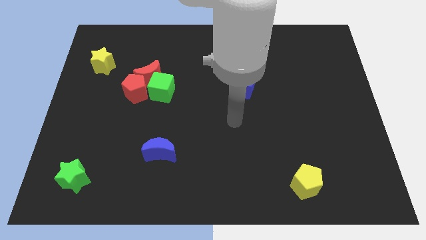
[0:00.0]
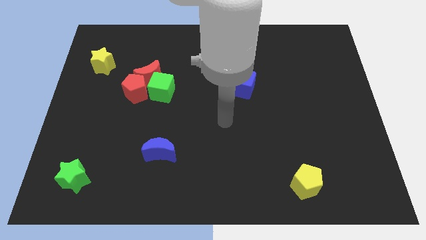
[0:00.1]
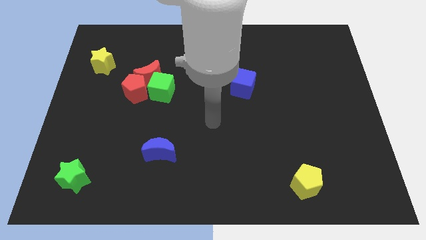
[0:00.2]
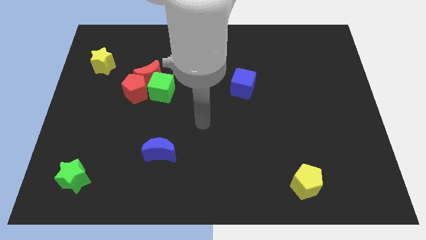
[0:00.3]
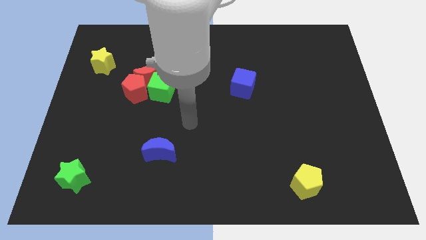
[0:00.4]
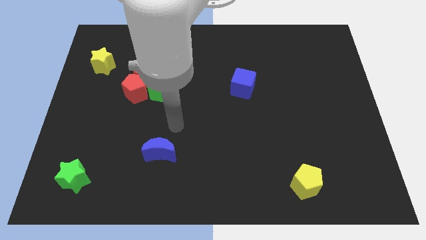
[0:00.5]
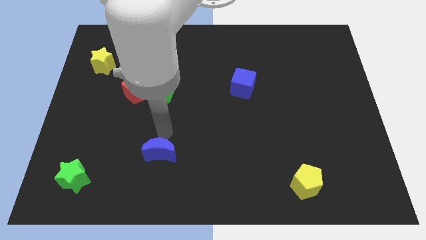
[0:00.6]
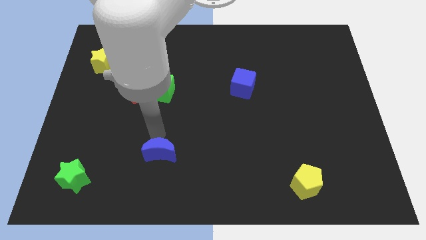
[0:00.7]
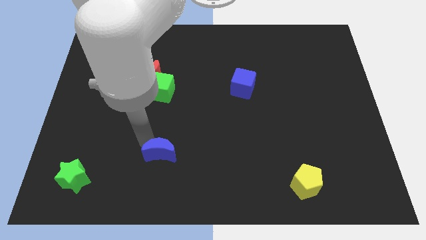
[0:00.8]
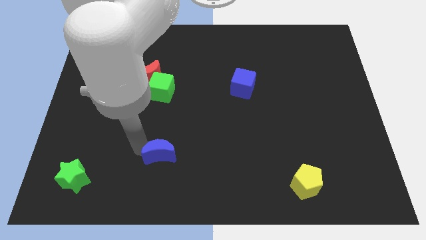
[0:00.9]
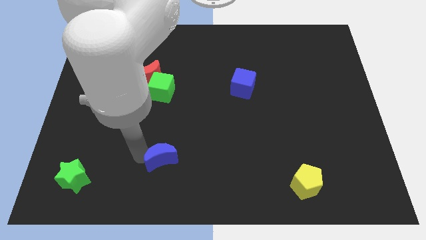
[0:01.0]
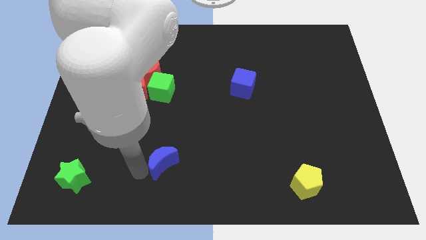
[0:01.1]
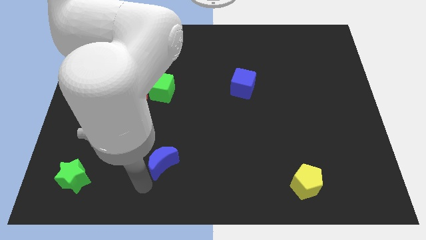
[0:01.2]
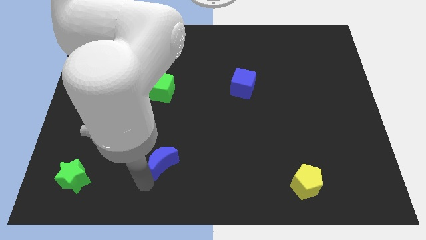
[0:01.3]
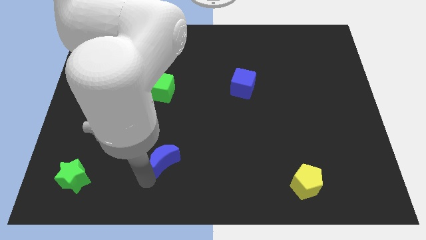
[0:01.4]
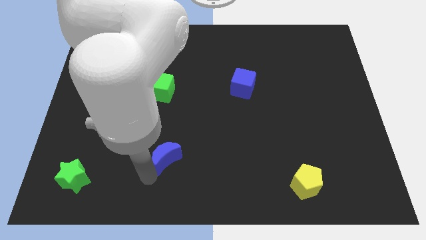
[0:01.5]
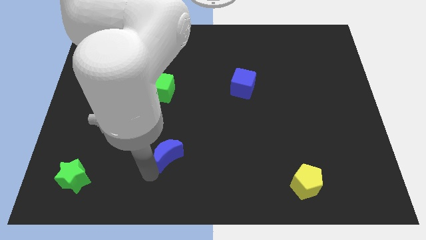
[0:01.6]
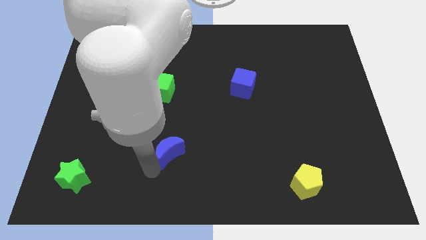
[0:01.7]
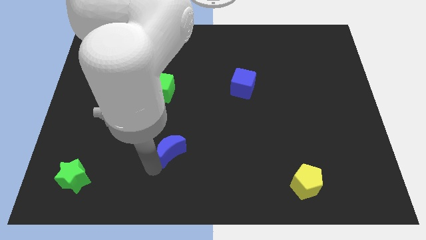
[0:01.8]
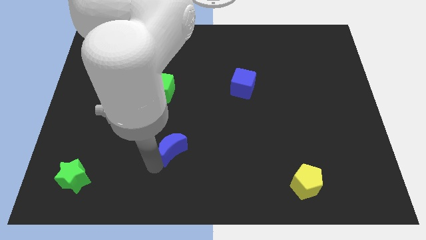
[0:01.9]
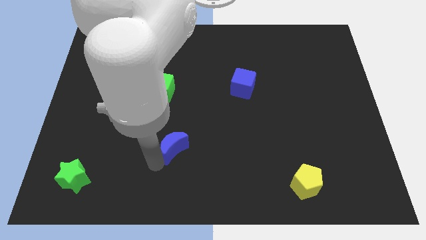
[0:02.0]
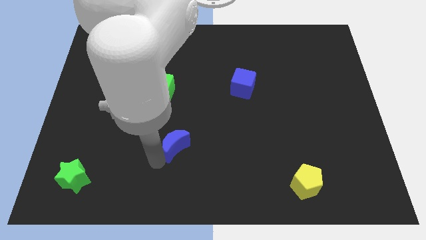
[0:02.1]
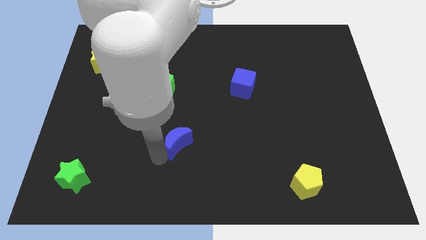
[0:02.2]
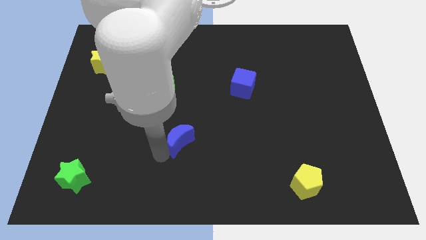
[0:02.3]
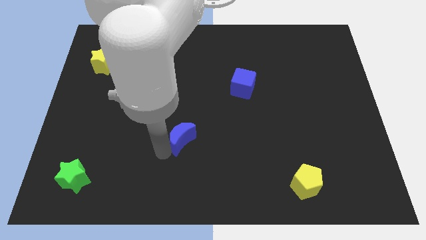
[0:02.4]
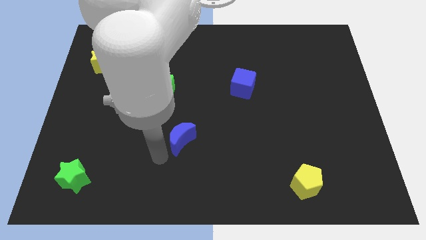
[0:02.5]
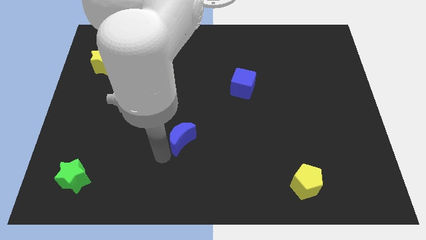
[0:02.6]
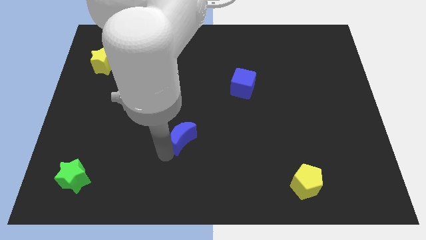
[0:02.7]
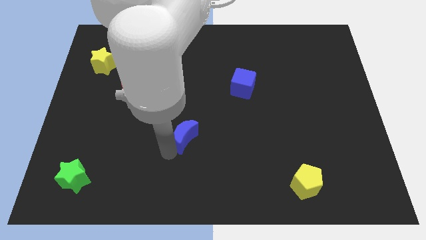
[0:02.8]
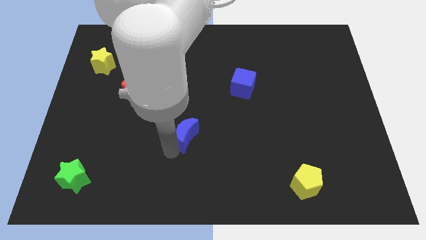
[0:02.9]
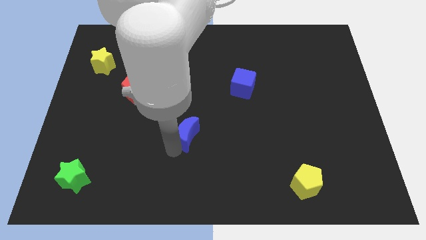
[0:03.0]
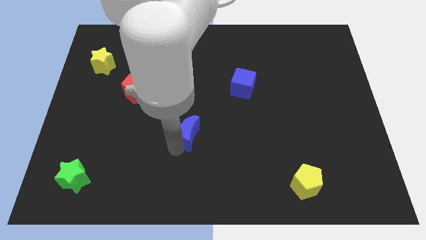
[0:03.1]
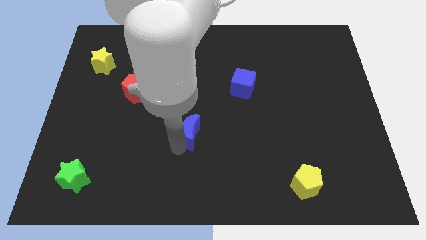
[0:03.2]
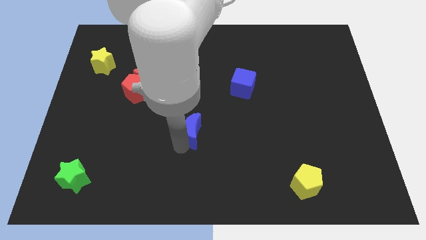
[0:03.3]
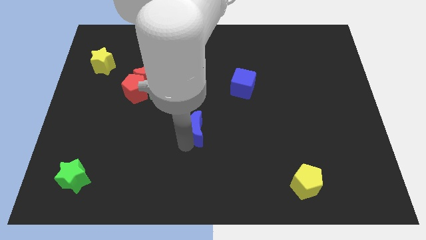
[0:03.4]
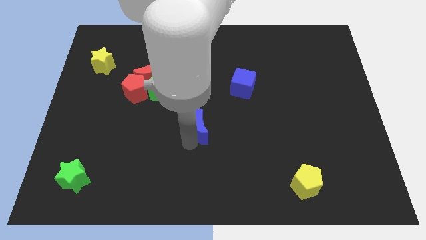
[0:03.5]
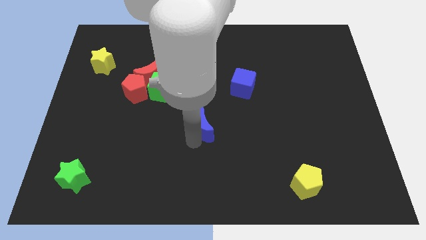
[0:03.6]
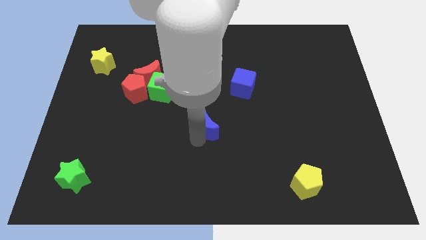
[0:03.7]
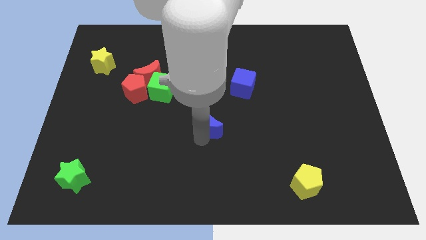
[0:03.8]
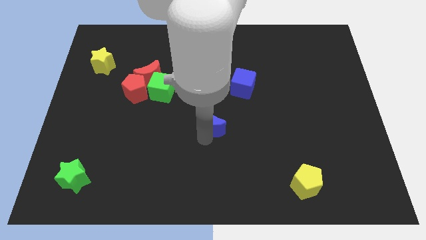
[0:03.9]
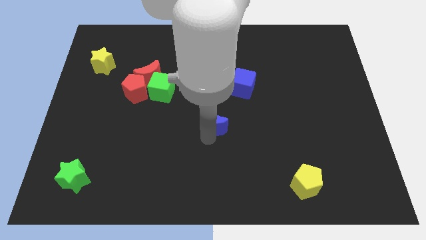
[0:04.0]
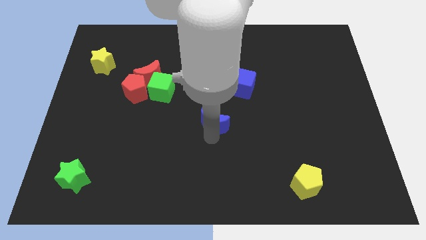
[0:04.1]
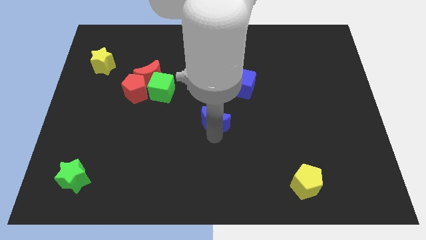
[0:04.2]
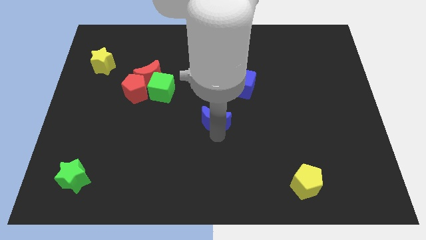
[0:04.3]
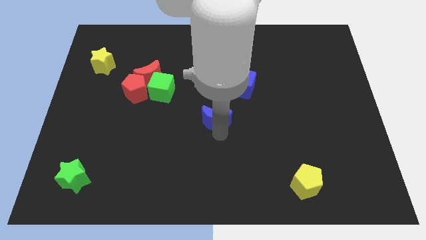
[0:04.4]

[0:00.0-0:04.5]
slide the blue moon to the bottom left side of the blue cube

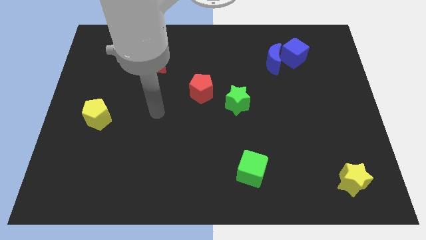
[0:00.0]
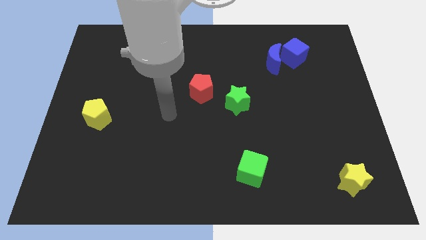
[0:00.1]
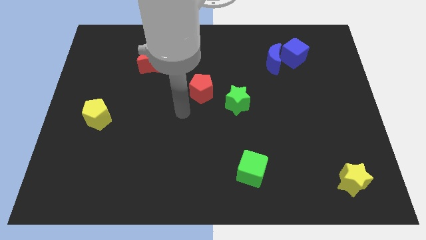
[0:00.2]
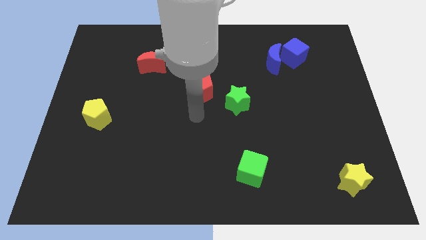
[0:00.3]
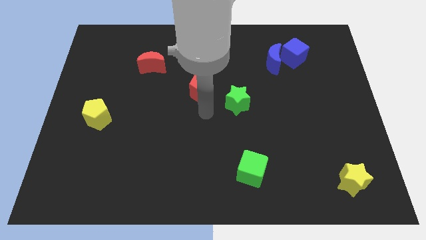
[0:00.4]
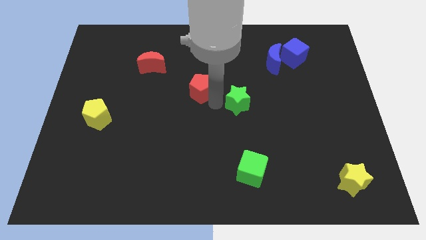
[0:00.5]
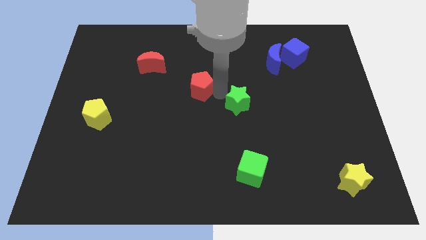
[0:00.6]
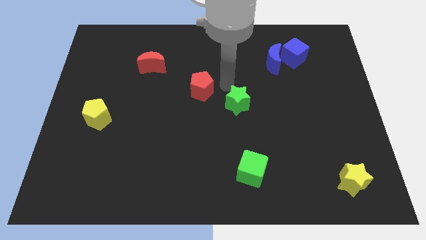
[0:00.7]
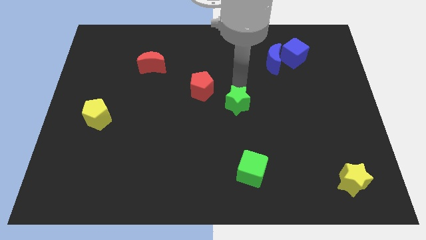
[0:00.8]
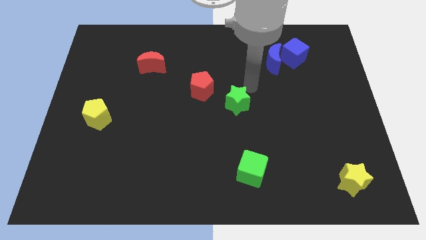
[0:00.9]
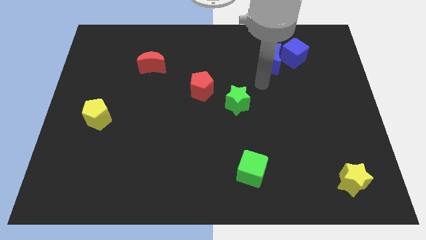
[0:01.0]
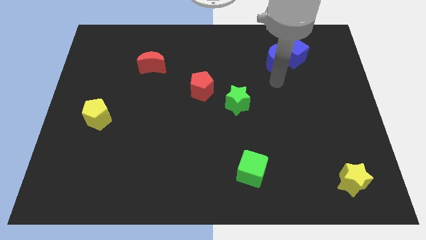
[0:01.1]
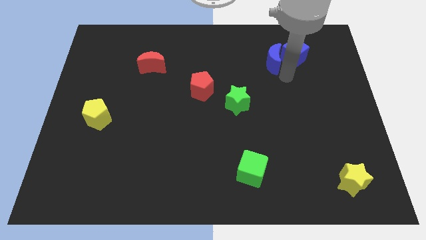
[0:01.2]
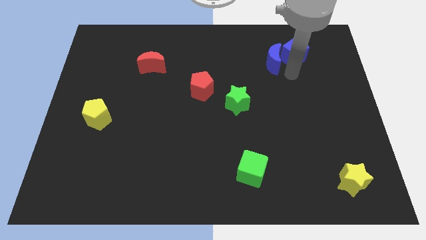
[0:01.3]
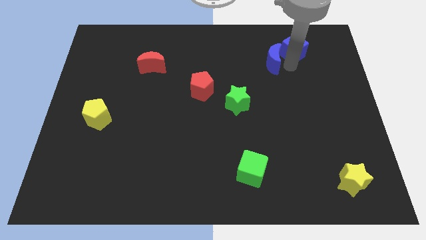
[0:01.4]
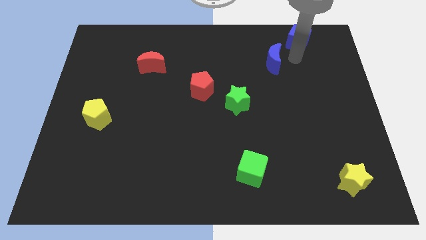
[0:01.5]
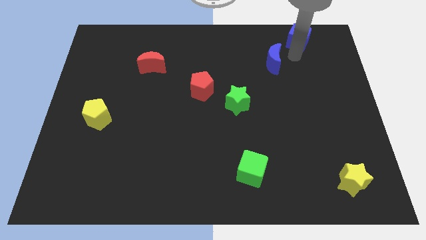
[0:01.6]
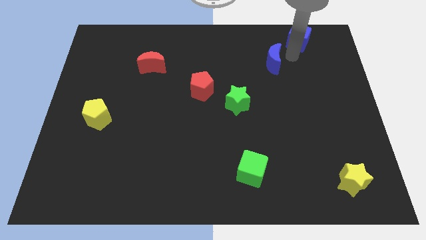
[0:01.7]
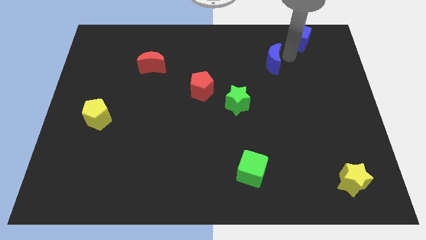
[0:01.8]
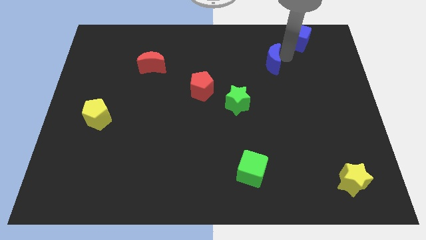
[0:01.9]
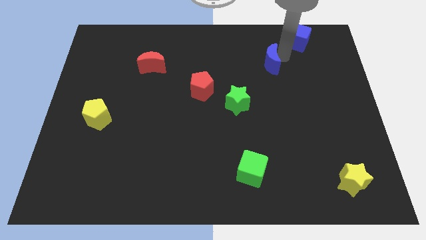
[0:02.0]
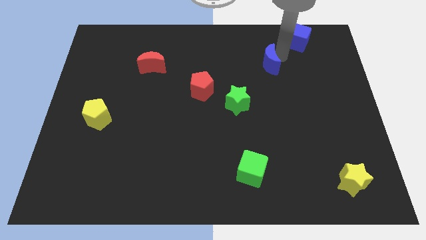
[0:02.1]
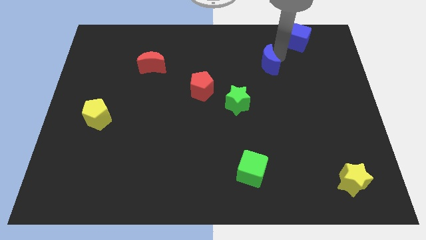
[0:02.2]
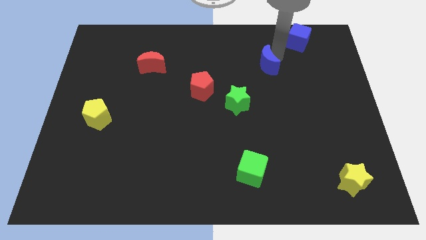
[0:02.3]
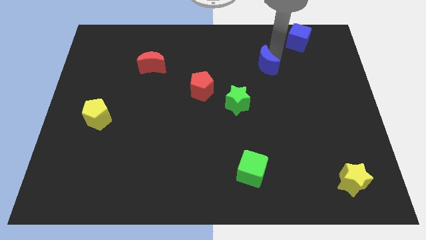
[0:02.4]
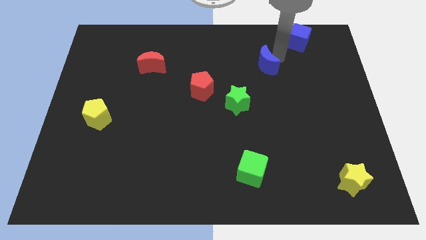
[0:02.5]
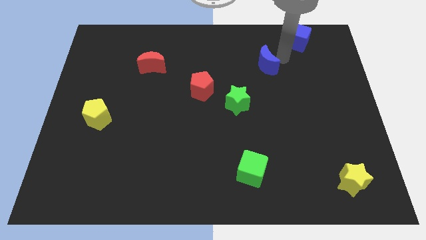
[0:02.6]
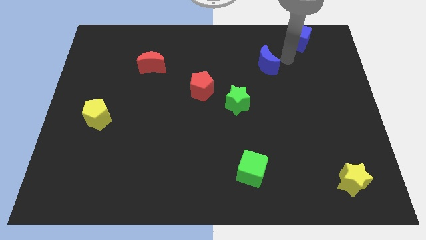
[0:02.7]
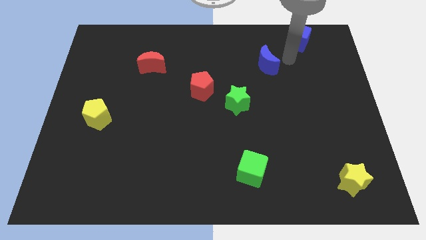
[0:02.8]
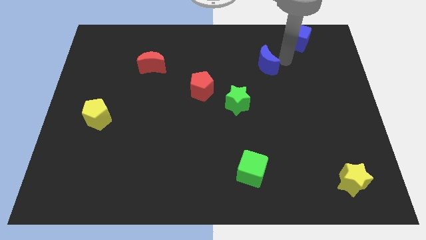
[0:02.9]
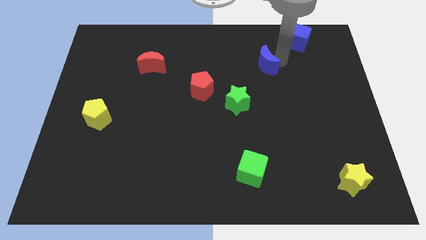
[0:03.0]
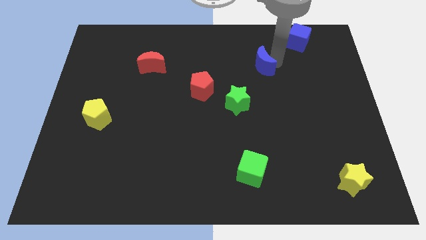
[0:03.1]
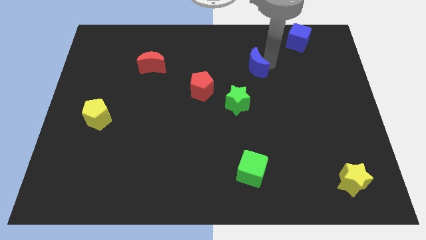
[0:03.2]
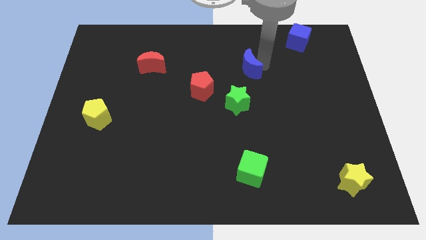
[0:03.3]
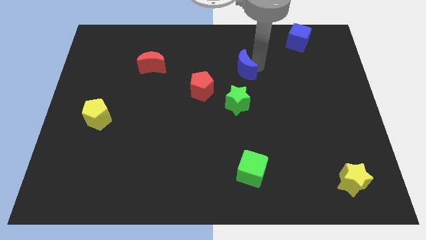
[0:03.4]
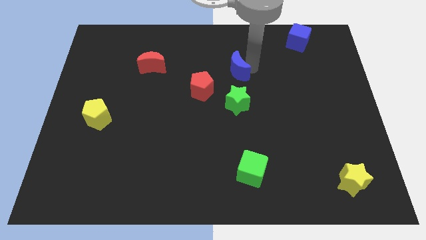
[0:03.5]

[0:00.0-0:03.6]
move the blue moon to the top right of the red pentagon
